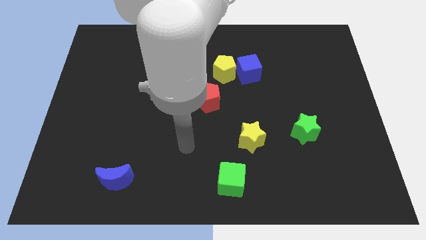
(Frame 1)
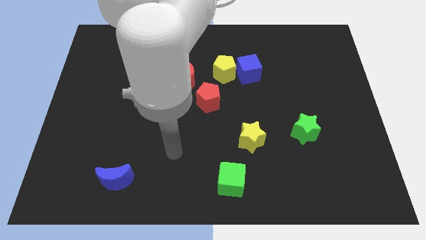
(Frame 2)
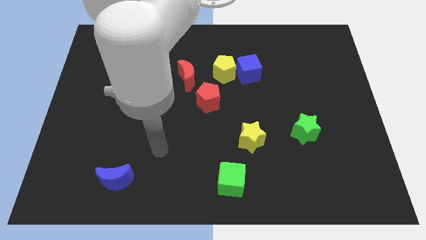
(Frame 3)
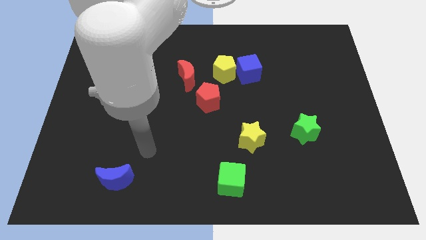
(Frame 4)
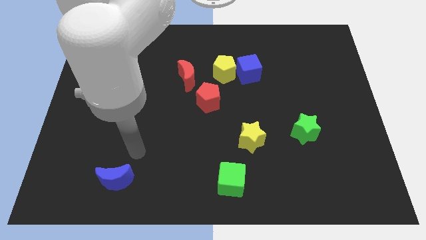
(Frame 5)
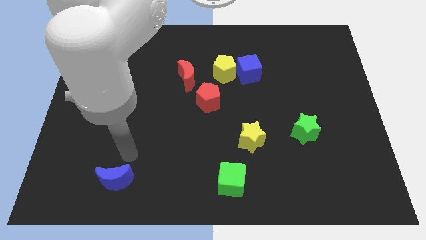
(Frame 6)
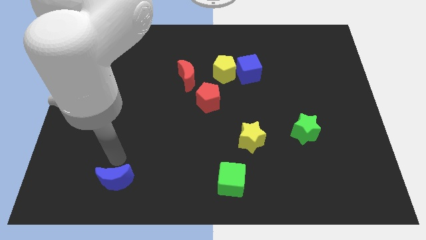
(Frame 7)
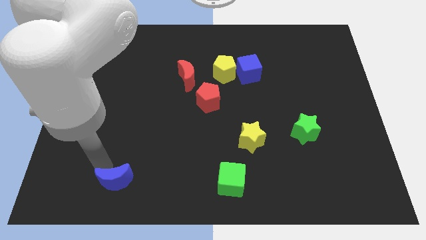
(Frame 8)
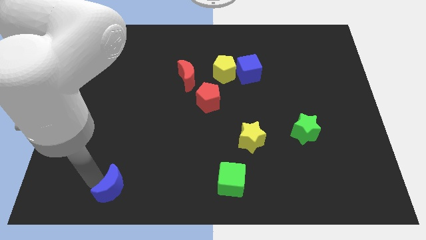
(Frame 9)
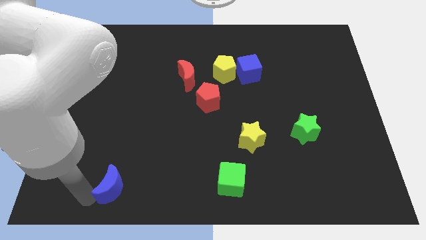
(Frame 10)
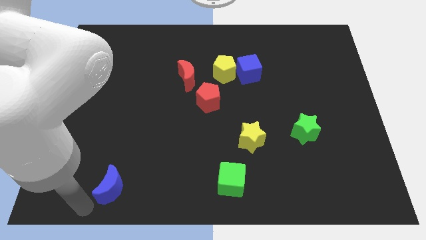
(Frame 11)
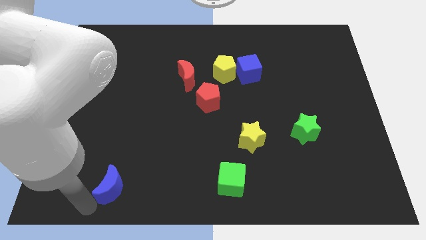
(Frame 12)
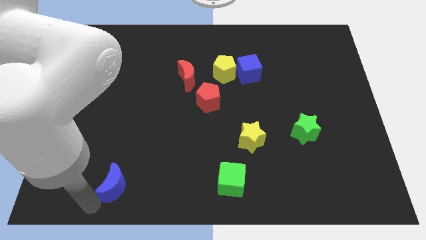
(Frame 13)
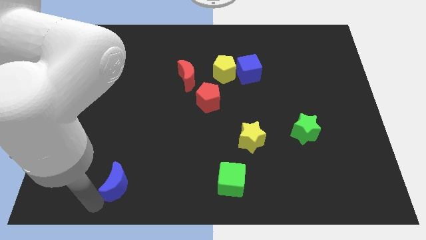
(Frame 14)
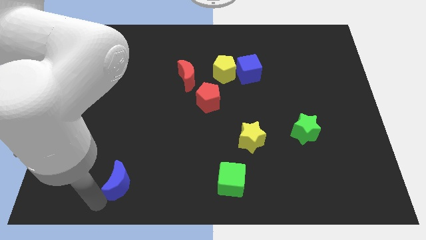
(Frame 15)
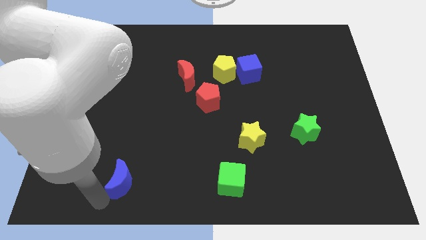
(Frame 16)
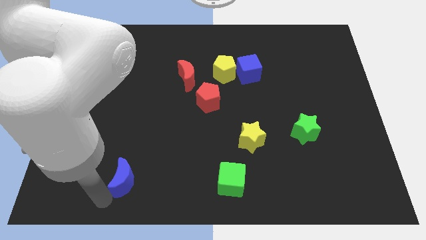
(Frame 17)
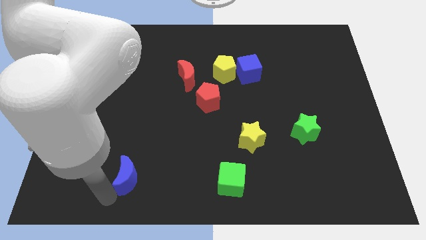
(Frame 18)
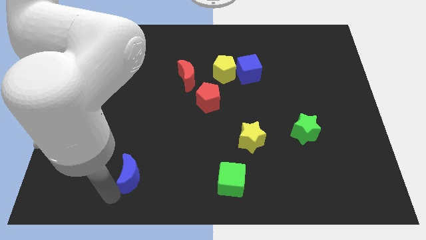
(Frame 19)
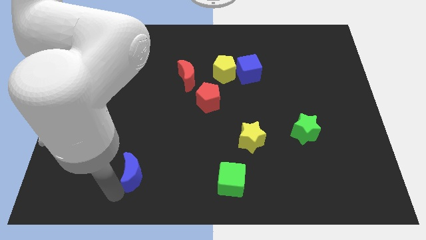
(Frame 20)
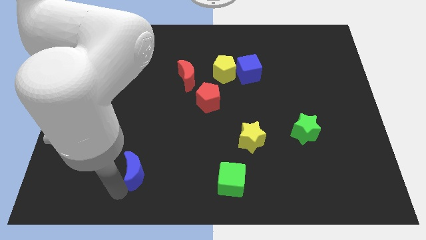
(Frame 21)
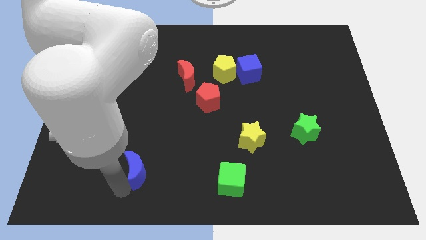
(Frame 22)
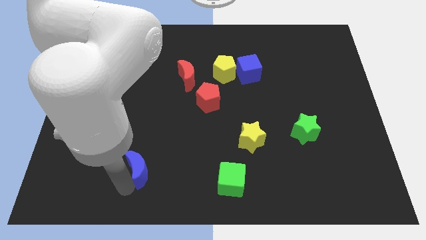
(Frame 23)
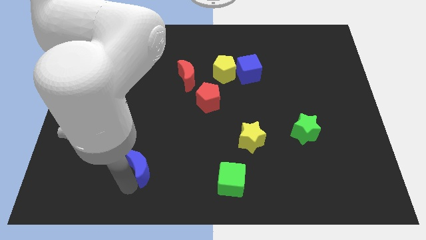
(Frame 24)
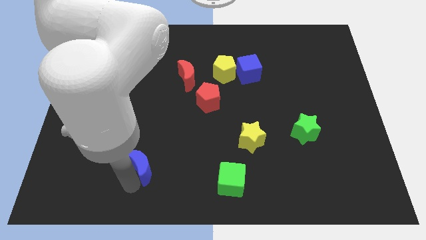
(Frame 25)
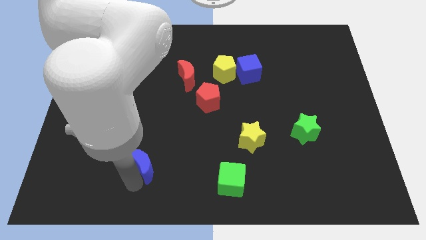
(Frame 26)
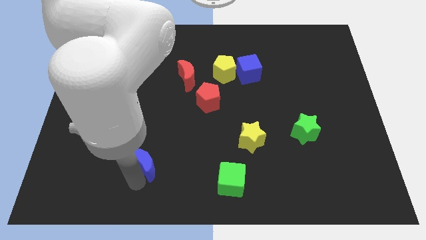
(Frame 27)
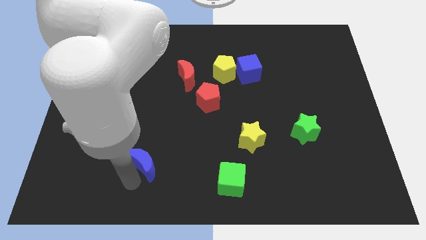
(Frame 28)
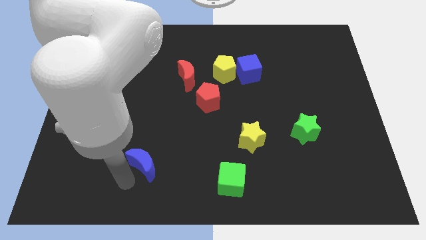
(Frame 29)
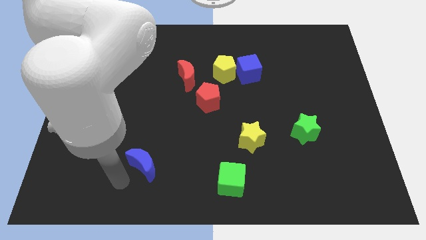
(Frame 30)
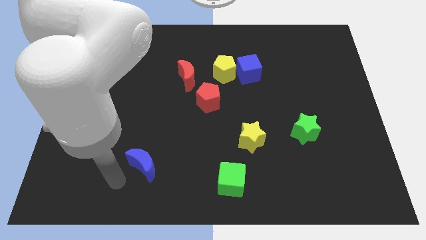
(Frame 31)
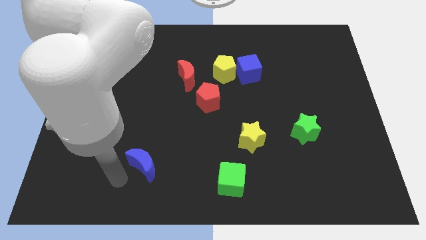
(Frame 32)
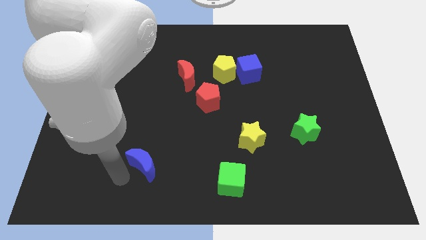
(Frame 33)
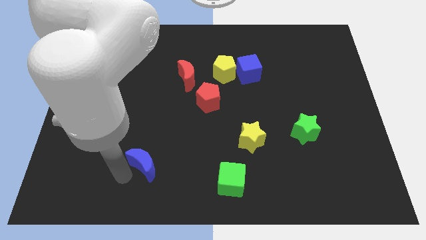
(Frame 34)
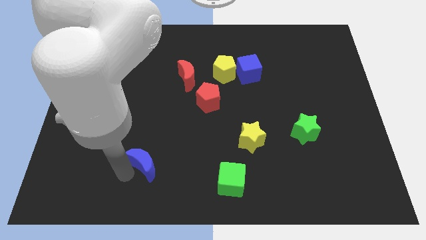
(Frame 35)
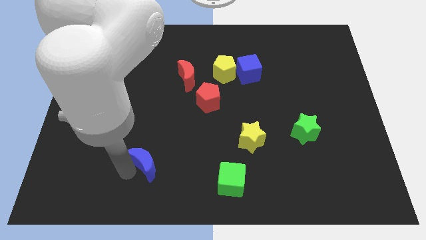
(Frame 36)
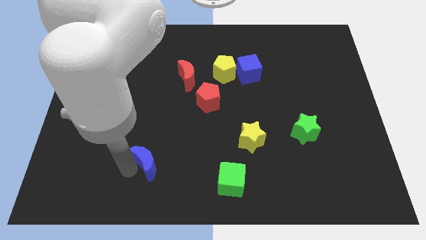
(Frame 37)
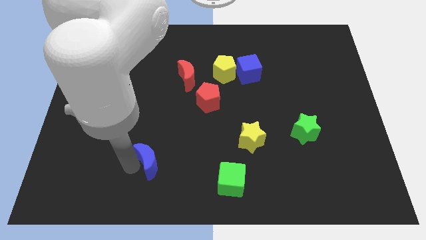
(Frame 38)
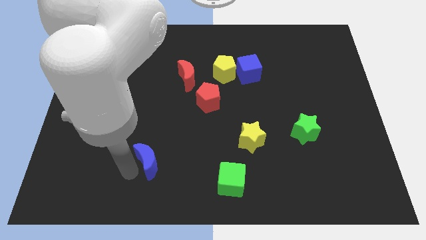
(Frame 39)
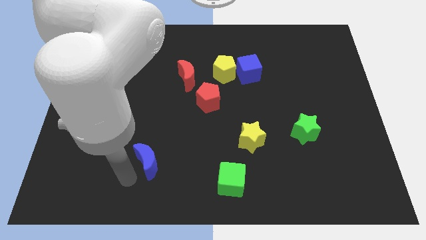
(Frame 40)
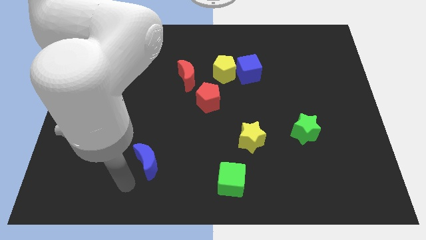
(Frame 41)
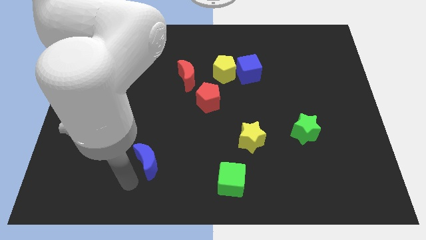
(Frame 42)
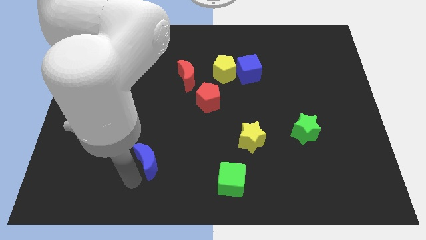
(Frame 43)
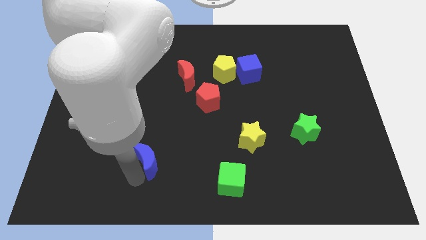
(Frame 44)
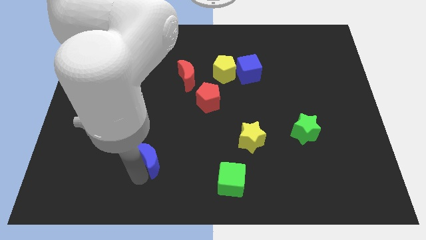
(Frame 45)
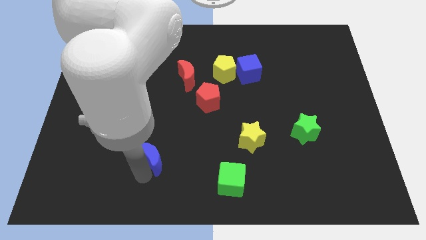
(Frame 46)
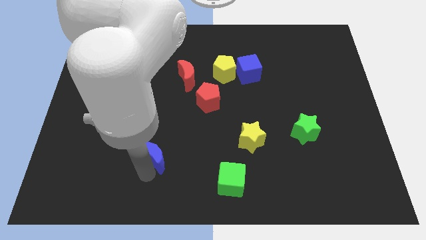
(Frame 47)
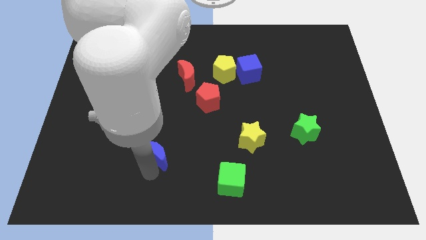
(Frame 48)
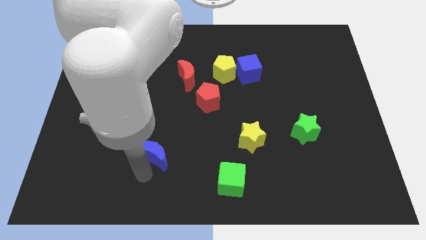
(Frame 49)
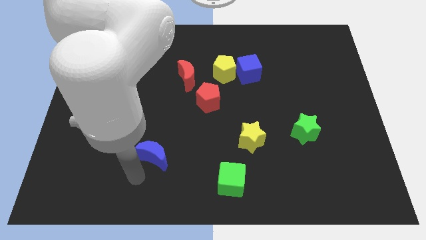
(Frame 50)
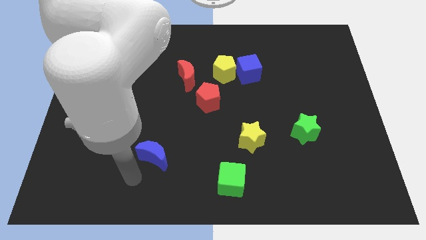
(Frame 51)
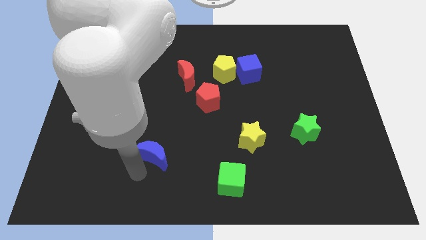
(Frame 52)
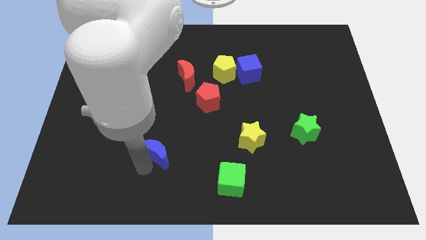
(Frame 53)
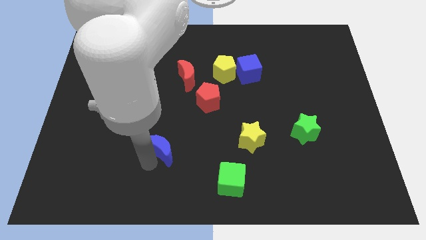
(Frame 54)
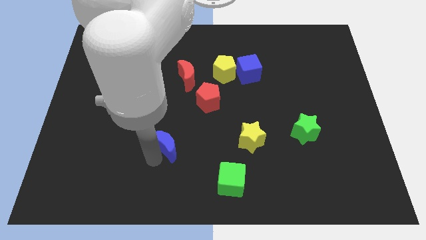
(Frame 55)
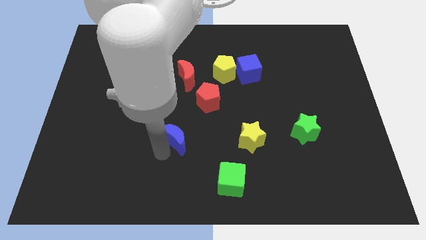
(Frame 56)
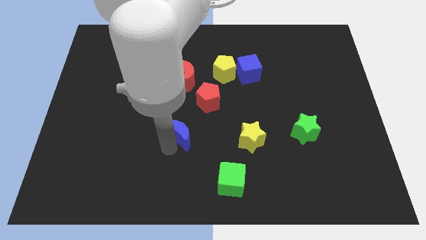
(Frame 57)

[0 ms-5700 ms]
move the blue moon to the bottom left of the red pentagon

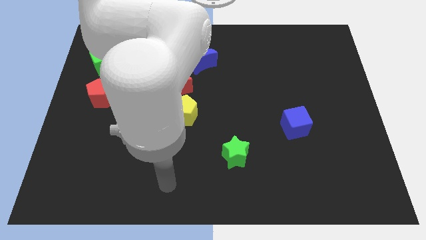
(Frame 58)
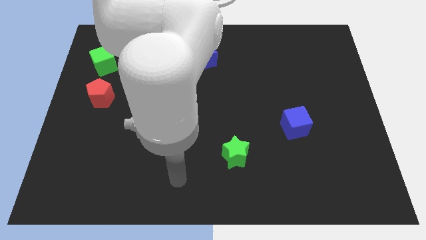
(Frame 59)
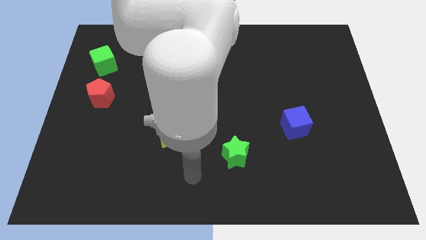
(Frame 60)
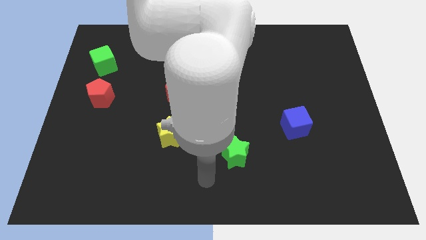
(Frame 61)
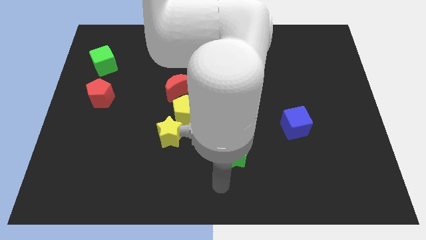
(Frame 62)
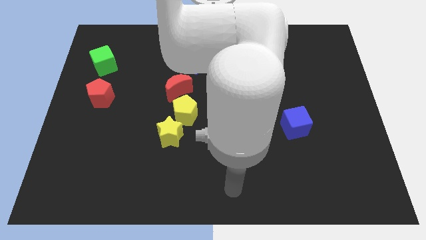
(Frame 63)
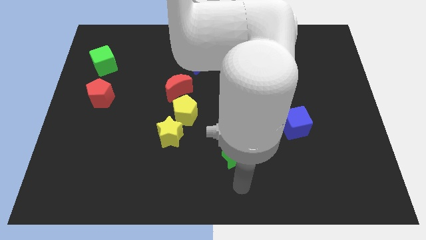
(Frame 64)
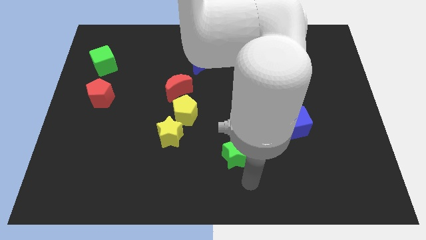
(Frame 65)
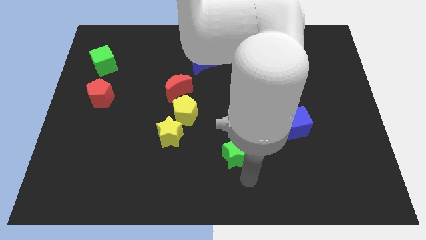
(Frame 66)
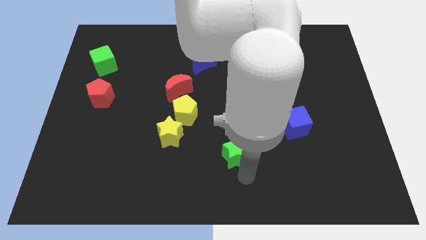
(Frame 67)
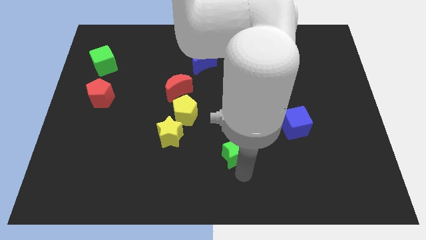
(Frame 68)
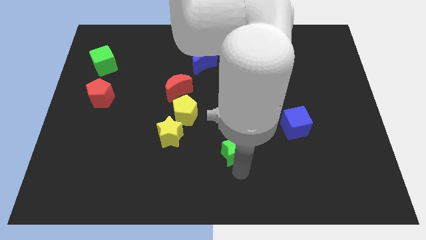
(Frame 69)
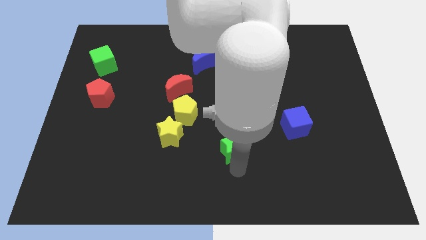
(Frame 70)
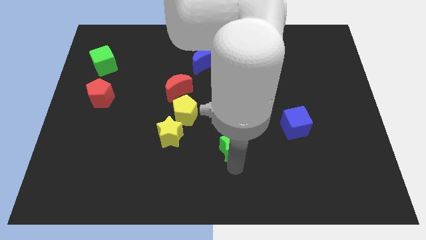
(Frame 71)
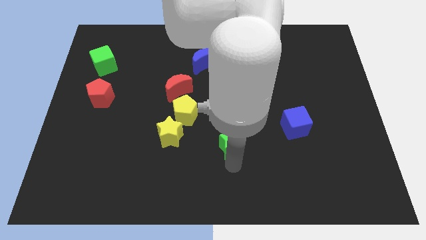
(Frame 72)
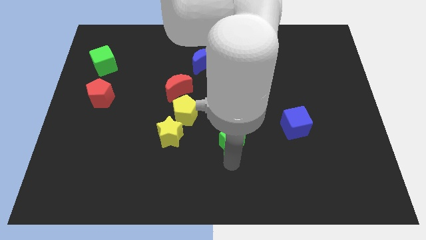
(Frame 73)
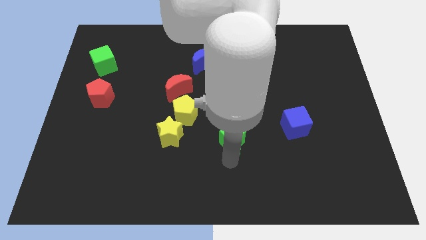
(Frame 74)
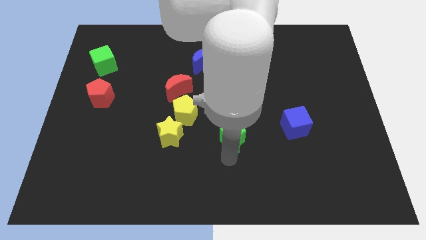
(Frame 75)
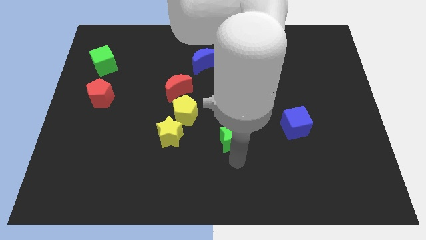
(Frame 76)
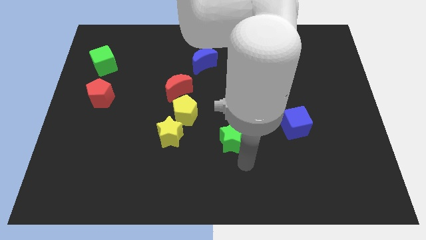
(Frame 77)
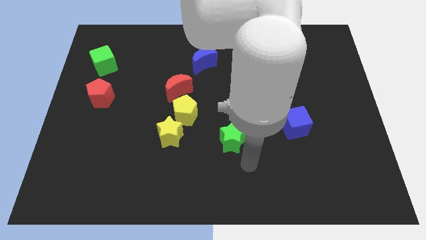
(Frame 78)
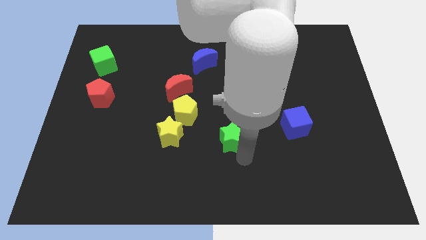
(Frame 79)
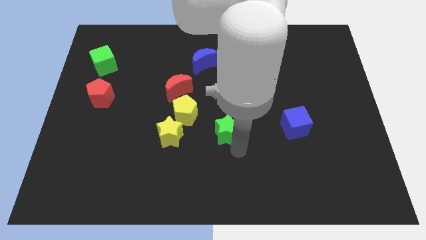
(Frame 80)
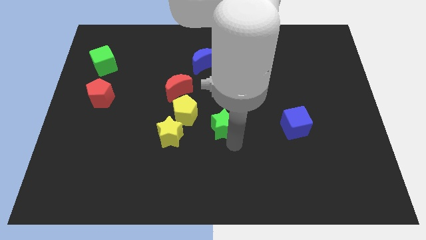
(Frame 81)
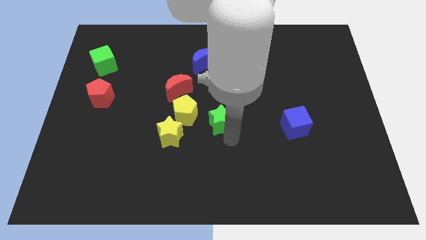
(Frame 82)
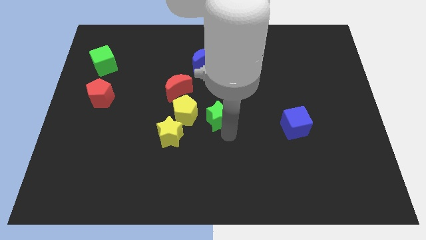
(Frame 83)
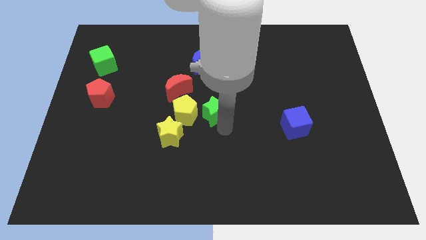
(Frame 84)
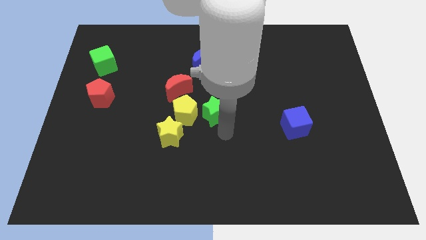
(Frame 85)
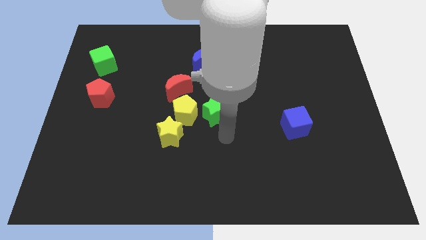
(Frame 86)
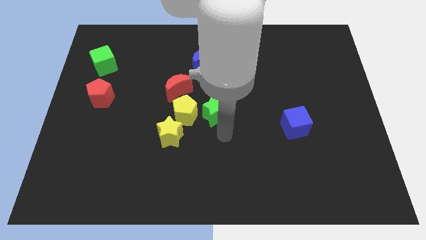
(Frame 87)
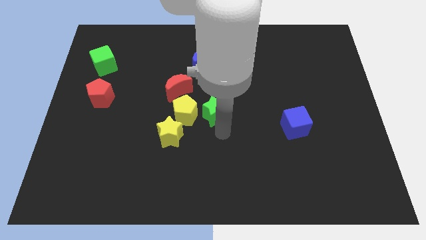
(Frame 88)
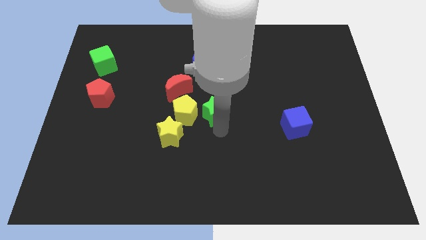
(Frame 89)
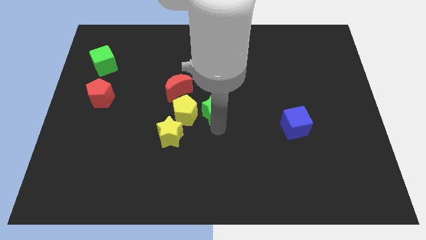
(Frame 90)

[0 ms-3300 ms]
slide the green star to the top right side of the yellow pentagon
